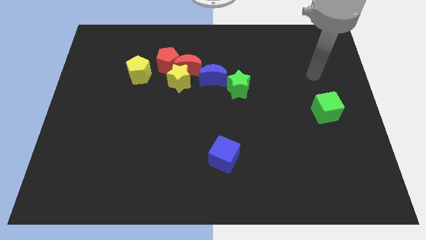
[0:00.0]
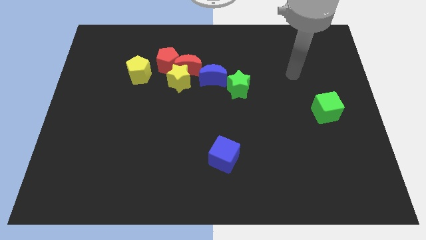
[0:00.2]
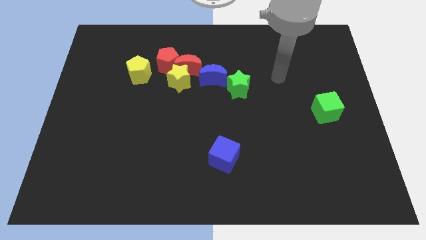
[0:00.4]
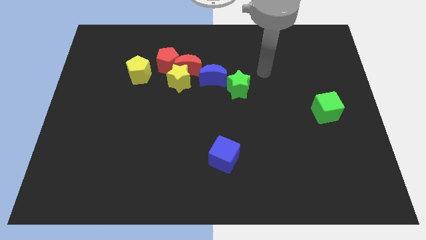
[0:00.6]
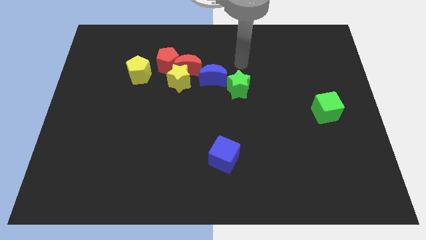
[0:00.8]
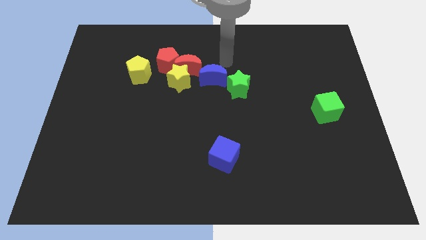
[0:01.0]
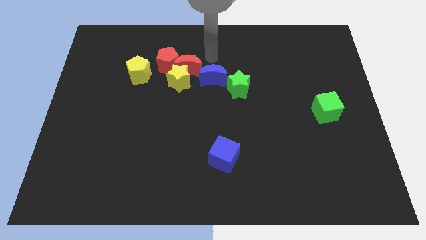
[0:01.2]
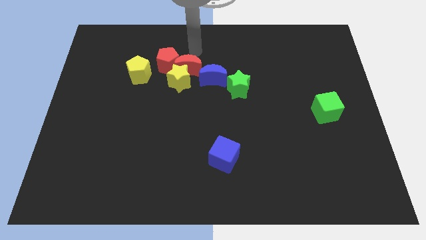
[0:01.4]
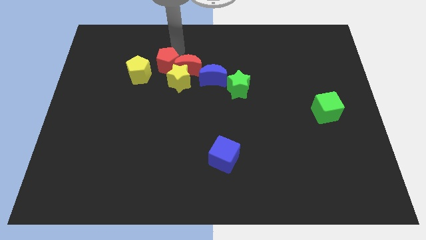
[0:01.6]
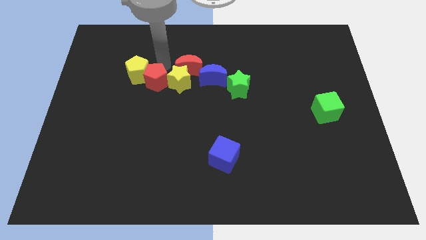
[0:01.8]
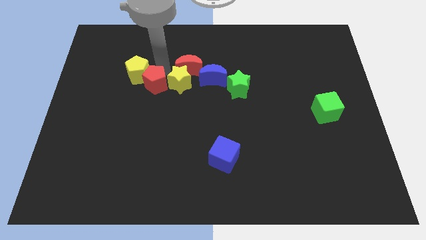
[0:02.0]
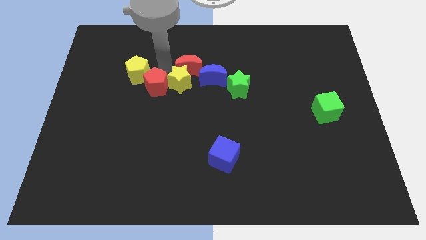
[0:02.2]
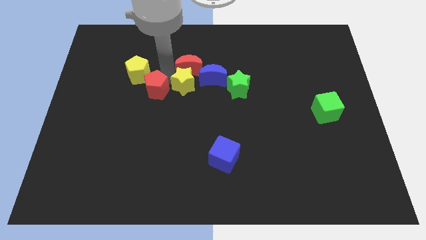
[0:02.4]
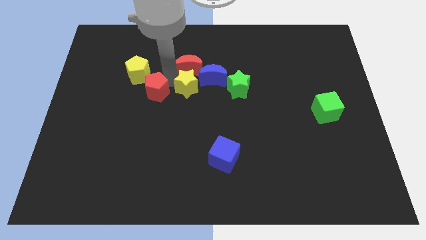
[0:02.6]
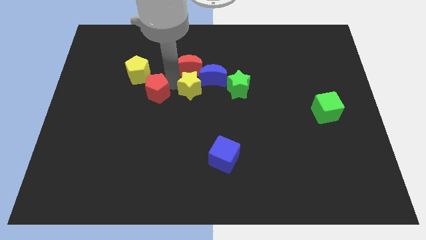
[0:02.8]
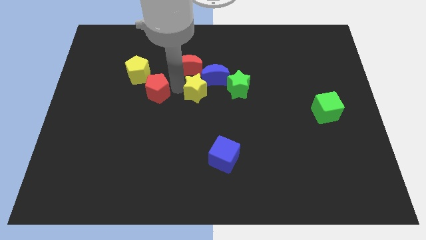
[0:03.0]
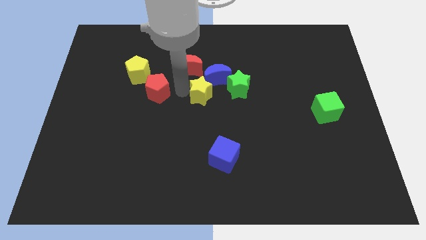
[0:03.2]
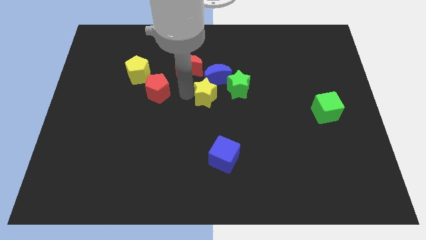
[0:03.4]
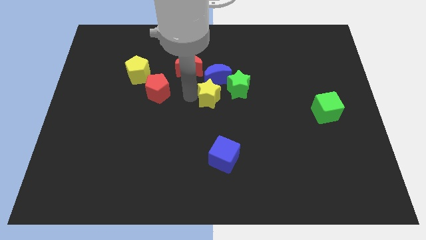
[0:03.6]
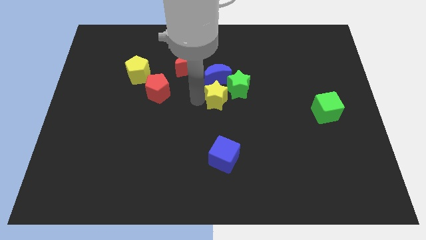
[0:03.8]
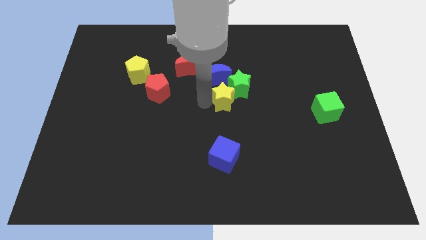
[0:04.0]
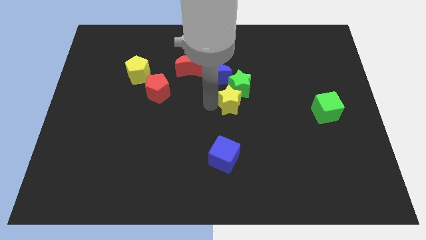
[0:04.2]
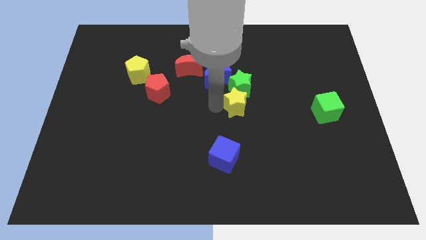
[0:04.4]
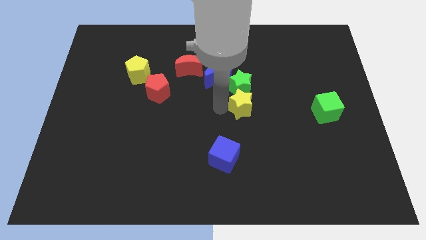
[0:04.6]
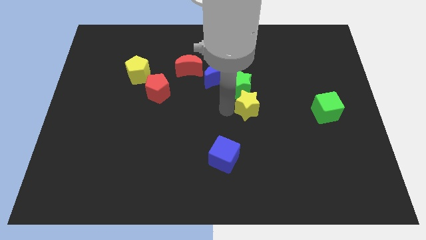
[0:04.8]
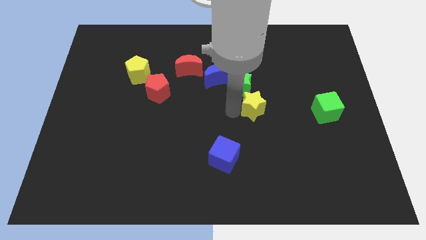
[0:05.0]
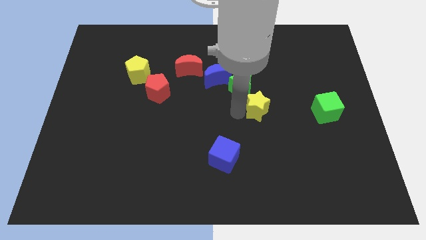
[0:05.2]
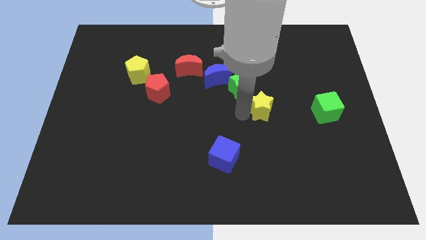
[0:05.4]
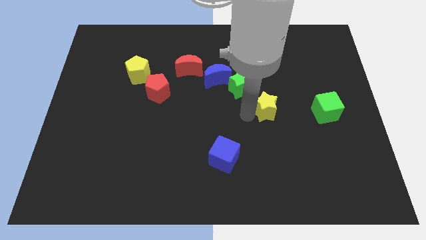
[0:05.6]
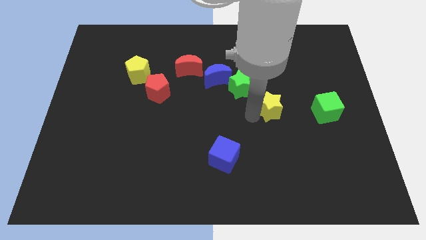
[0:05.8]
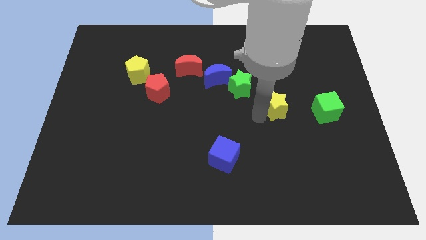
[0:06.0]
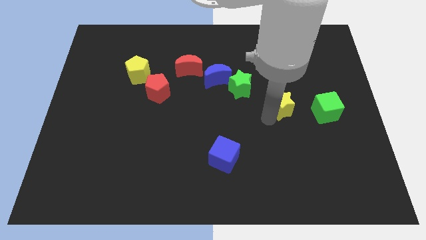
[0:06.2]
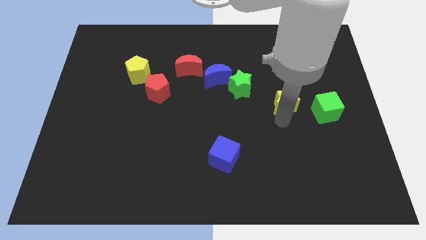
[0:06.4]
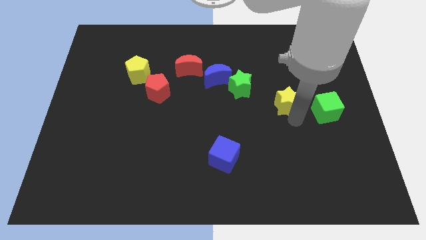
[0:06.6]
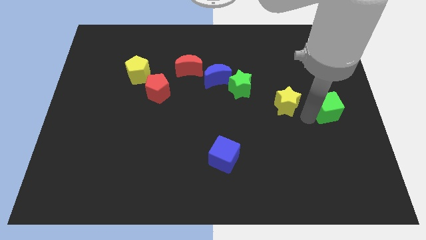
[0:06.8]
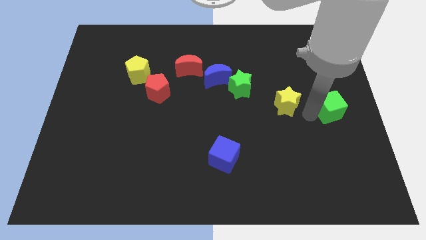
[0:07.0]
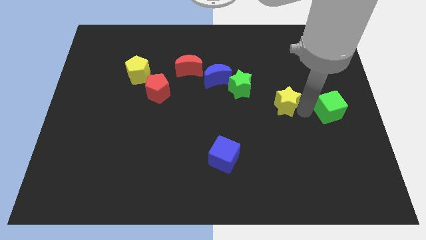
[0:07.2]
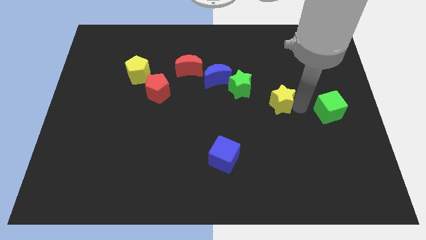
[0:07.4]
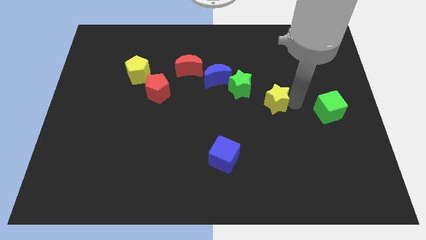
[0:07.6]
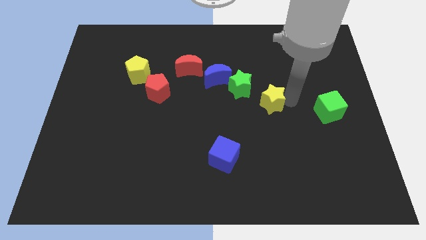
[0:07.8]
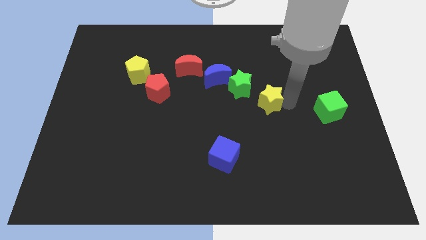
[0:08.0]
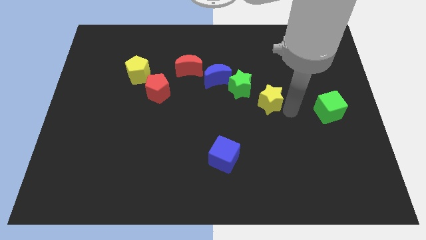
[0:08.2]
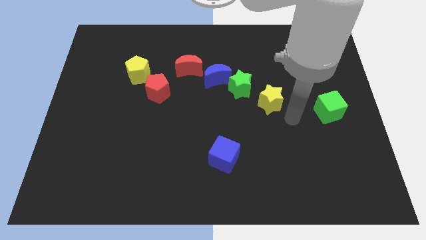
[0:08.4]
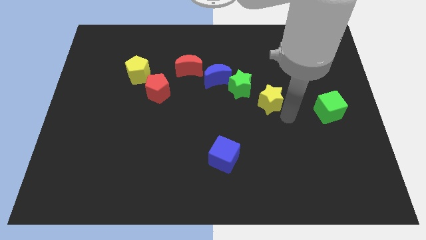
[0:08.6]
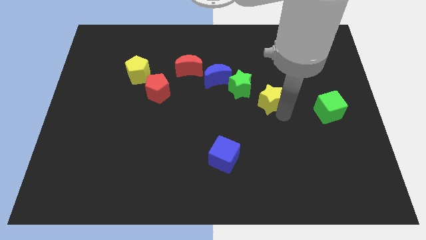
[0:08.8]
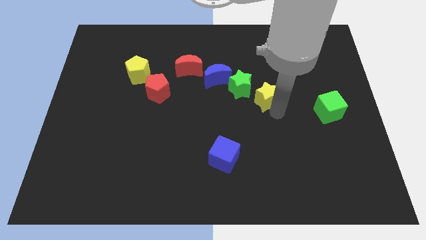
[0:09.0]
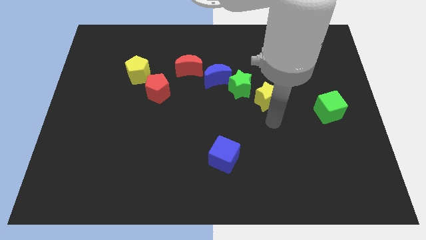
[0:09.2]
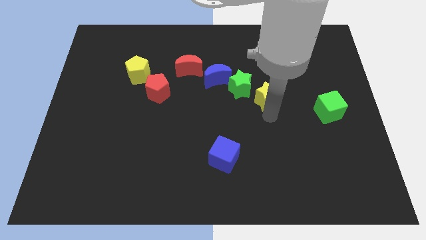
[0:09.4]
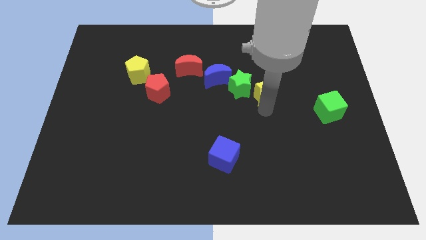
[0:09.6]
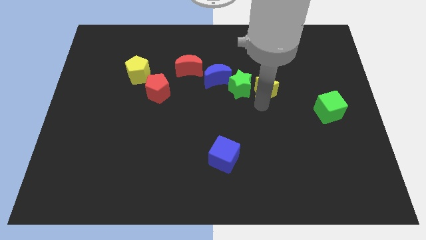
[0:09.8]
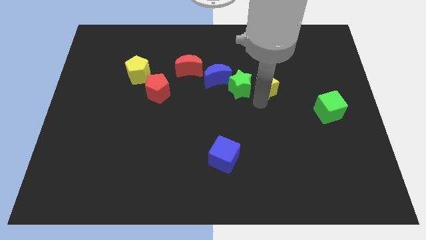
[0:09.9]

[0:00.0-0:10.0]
push the yellow star to the top right side of the green star

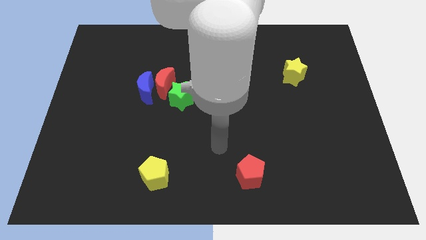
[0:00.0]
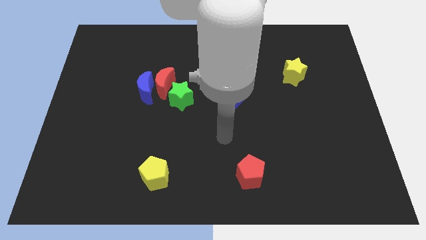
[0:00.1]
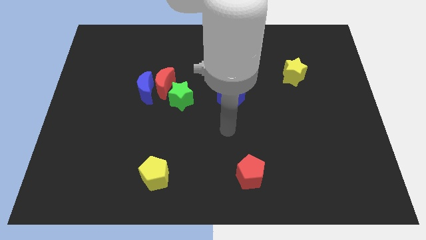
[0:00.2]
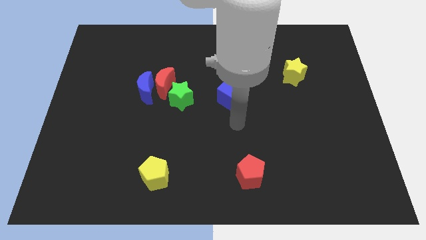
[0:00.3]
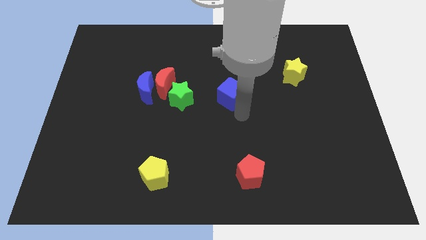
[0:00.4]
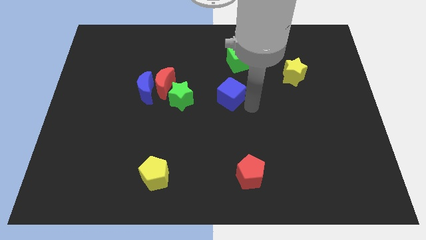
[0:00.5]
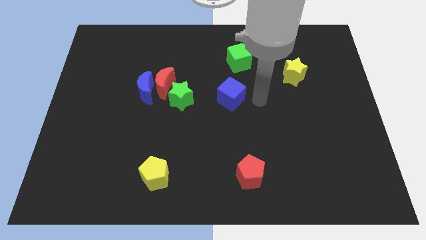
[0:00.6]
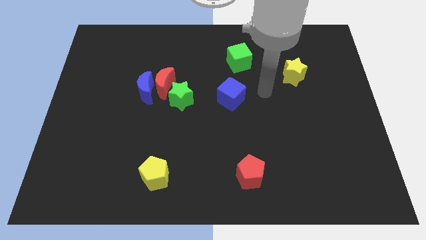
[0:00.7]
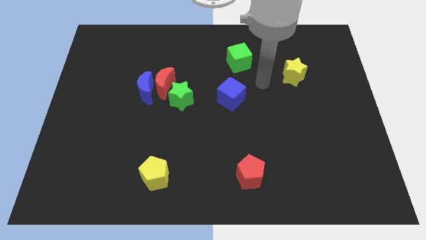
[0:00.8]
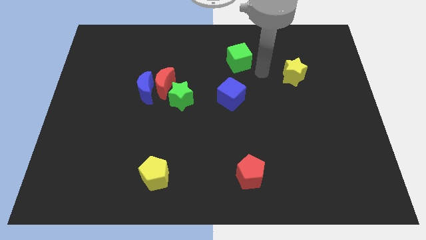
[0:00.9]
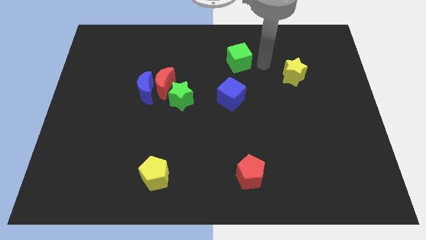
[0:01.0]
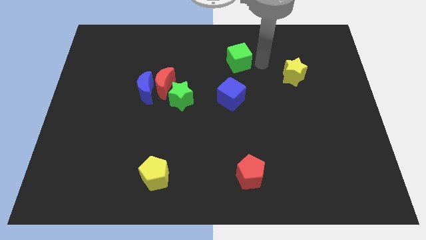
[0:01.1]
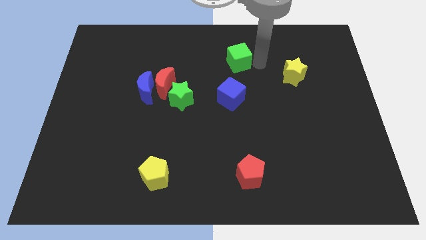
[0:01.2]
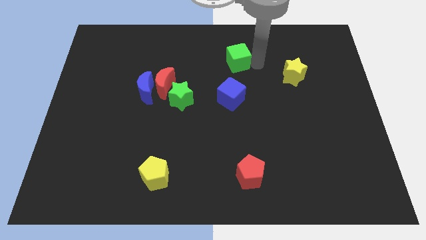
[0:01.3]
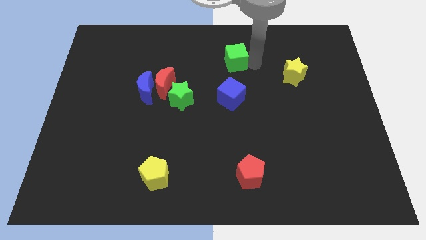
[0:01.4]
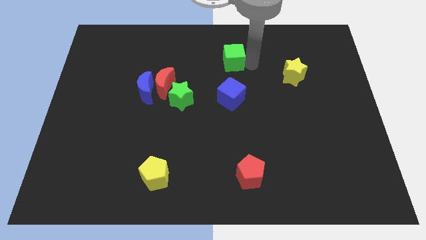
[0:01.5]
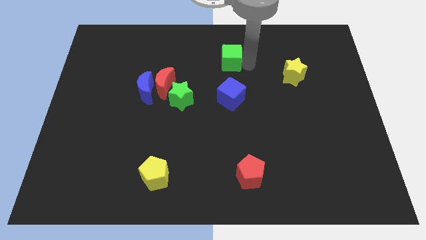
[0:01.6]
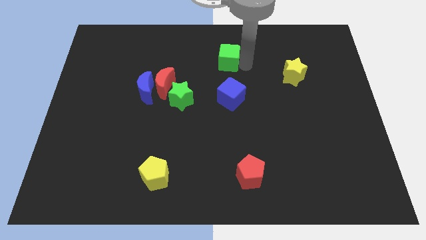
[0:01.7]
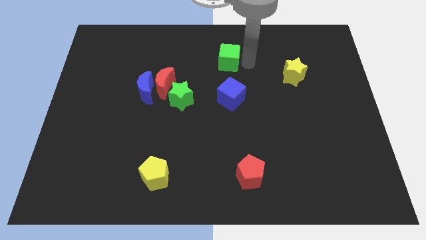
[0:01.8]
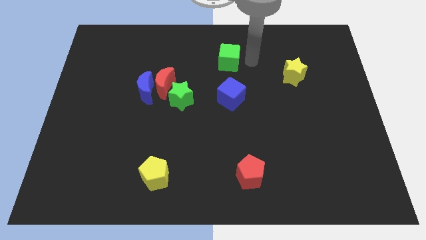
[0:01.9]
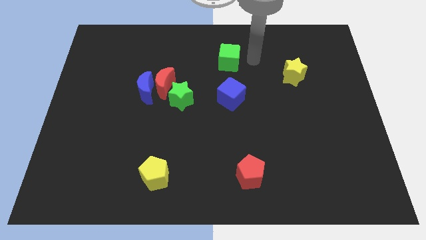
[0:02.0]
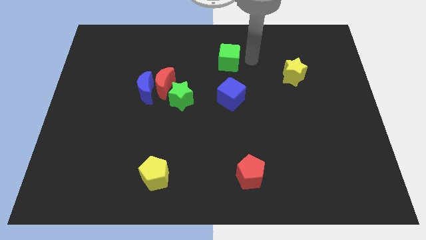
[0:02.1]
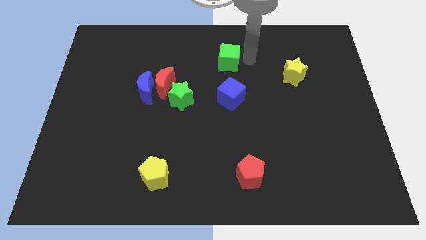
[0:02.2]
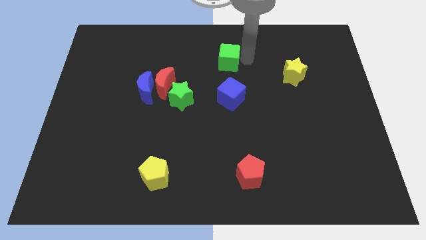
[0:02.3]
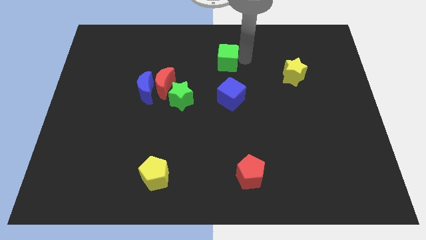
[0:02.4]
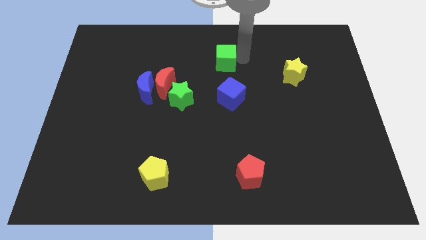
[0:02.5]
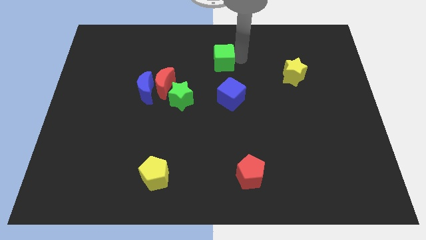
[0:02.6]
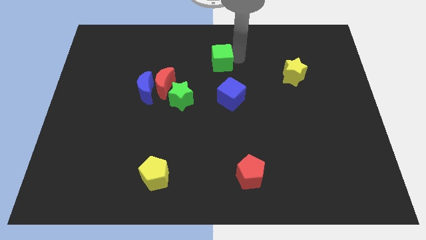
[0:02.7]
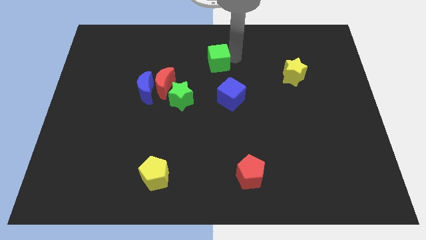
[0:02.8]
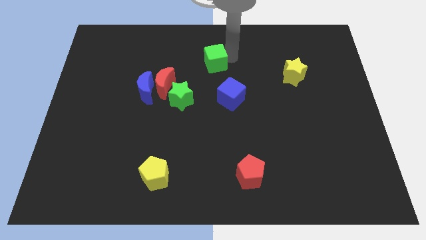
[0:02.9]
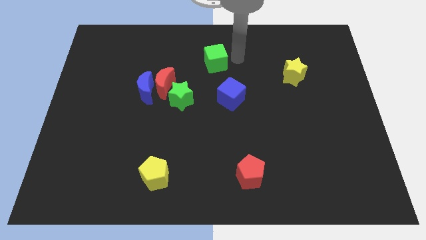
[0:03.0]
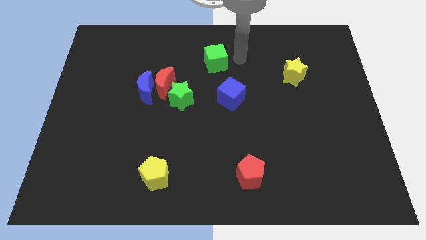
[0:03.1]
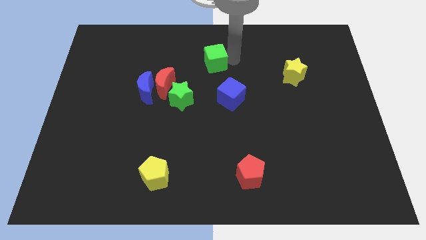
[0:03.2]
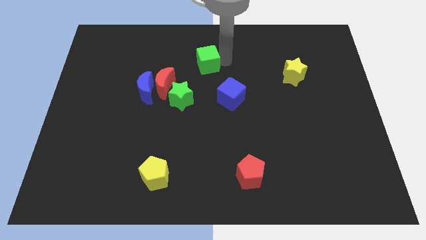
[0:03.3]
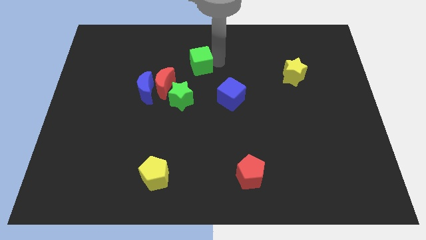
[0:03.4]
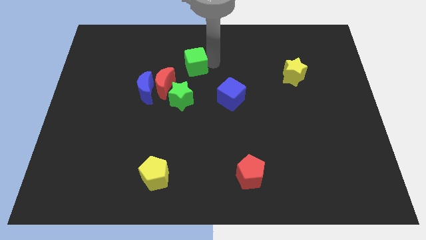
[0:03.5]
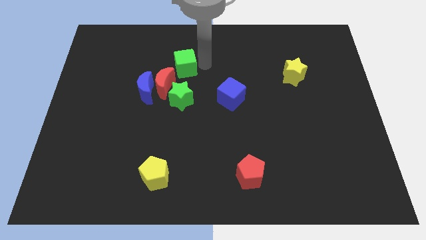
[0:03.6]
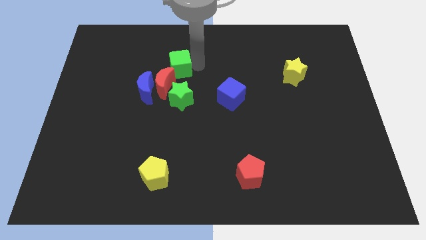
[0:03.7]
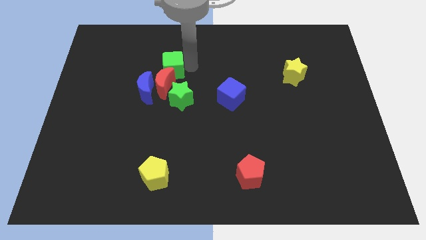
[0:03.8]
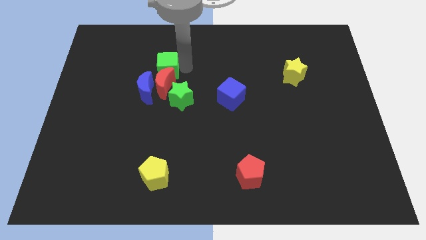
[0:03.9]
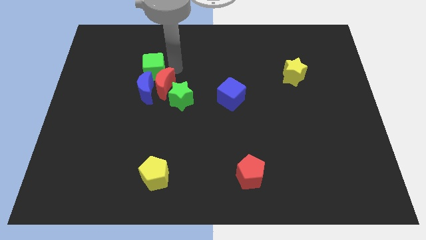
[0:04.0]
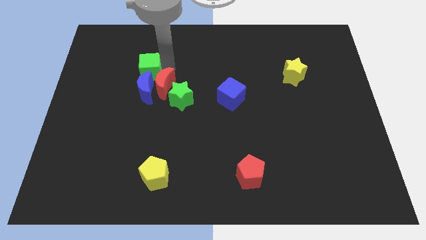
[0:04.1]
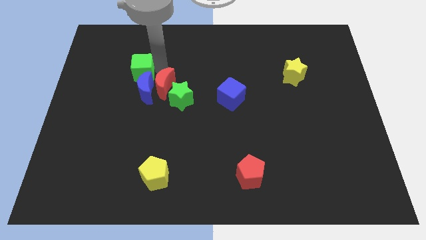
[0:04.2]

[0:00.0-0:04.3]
put the green cube diagonally up and to the left of the blue moon
